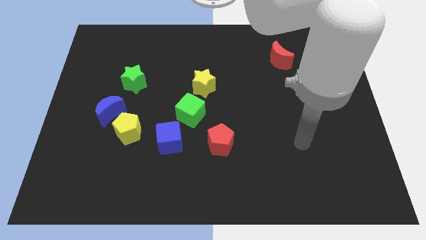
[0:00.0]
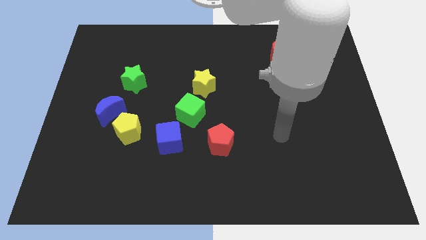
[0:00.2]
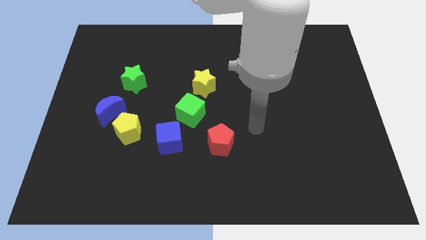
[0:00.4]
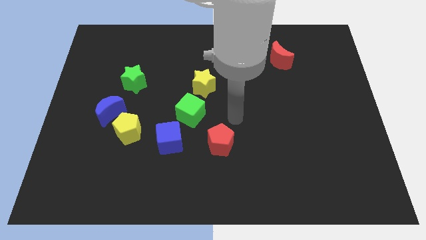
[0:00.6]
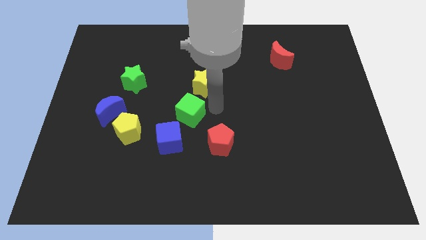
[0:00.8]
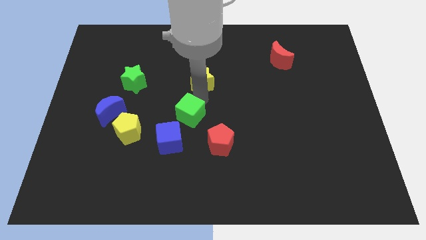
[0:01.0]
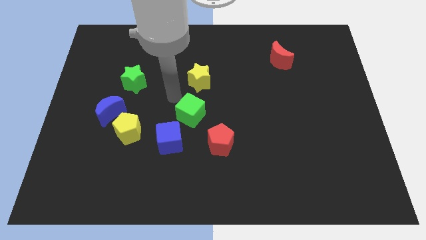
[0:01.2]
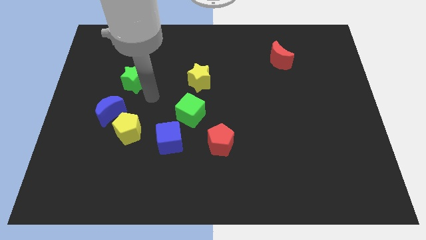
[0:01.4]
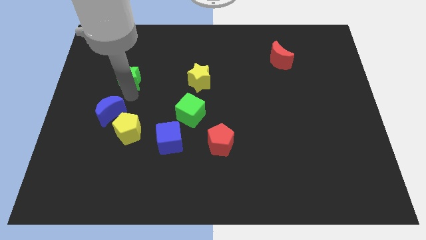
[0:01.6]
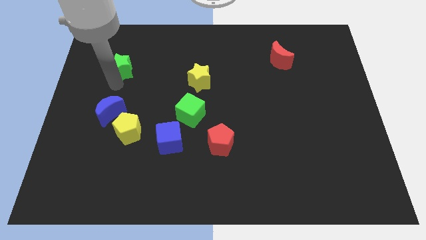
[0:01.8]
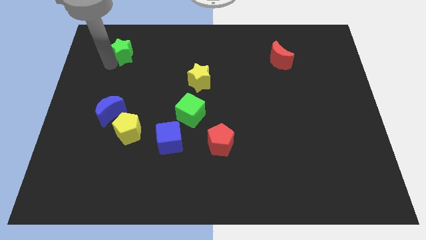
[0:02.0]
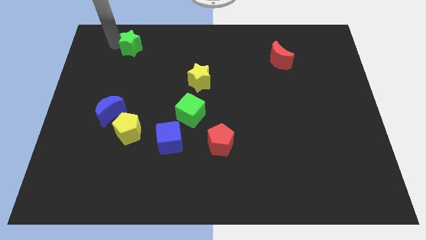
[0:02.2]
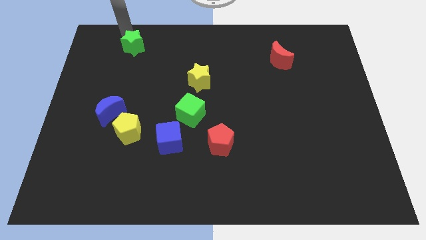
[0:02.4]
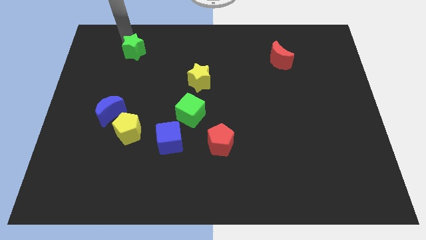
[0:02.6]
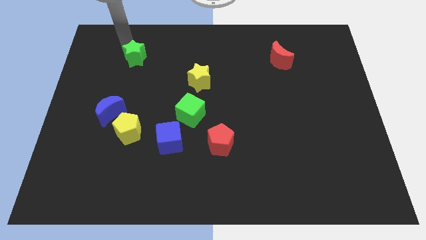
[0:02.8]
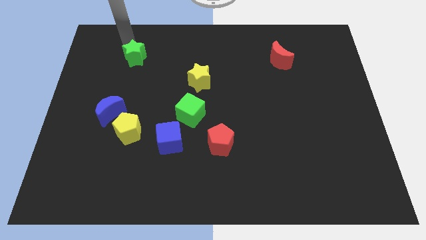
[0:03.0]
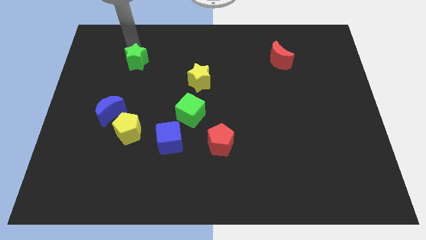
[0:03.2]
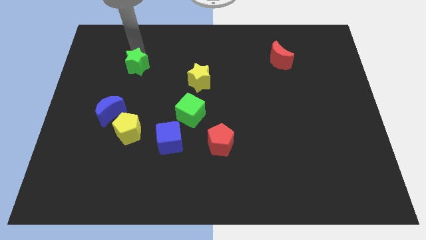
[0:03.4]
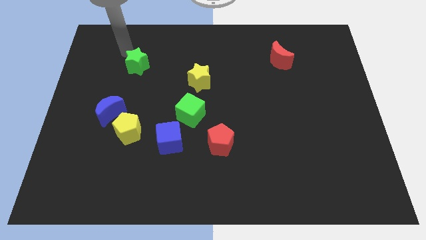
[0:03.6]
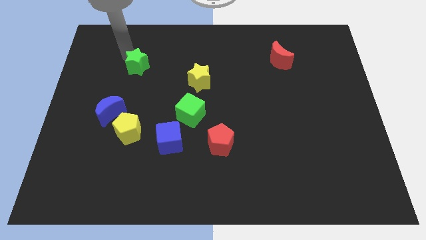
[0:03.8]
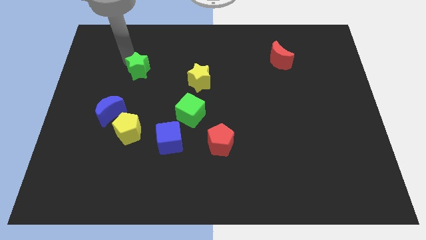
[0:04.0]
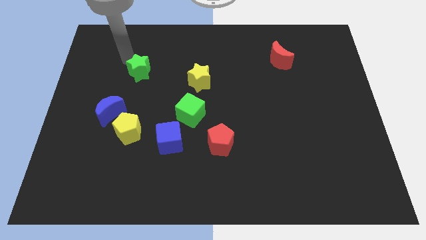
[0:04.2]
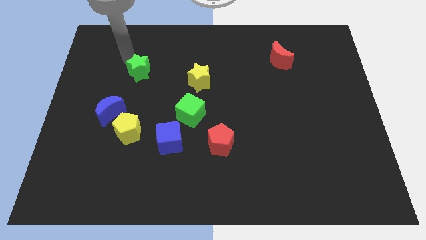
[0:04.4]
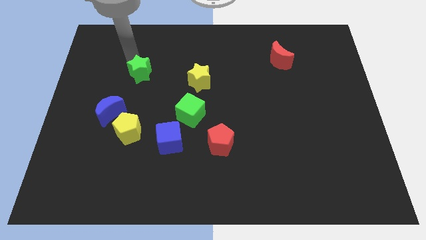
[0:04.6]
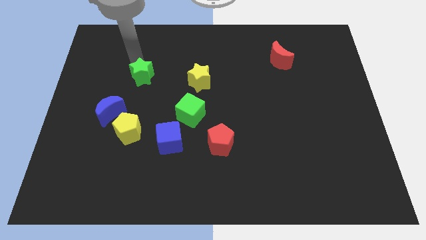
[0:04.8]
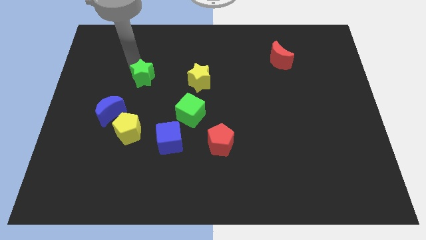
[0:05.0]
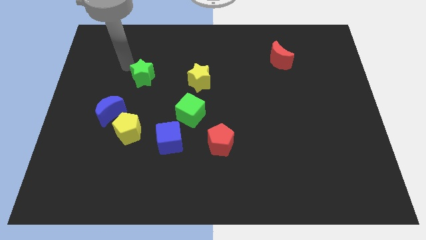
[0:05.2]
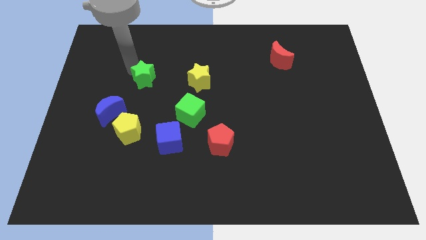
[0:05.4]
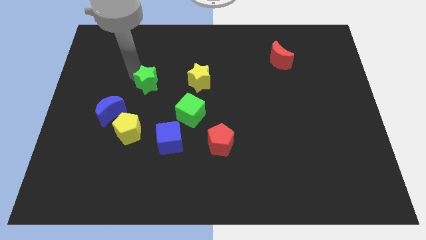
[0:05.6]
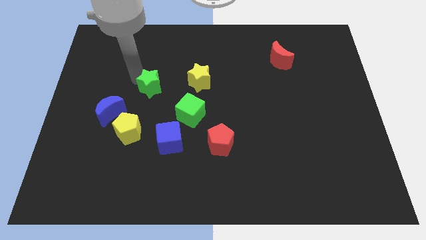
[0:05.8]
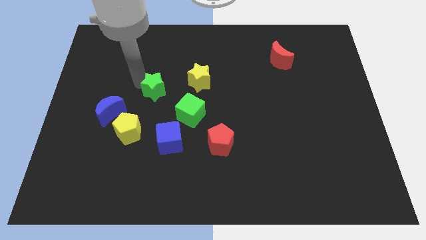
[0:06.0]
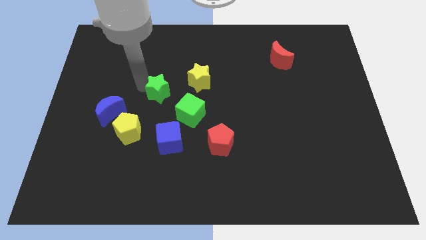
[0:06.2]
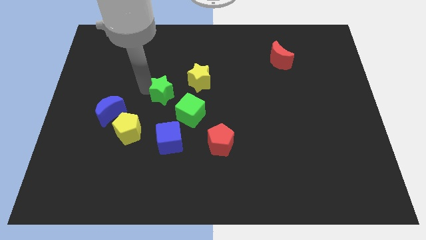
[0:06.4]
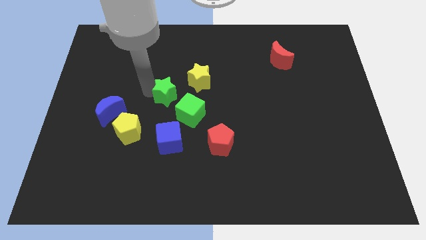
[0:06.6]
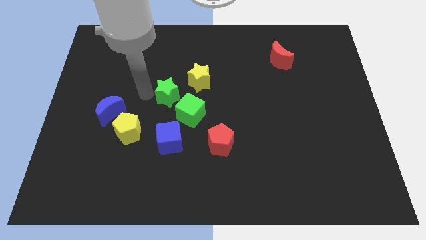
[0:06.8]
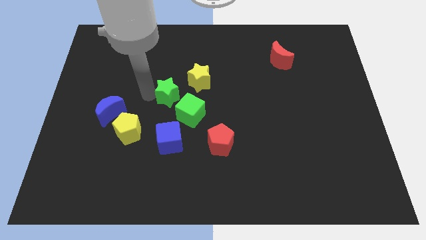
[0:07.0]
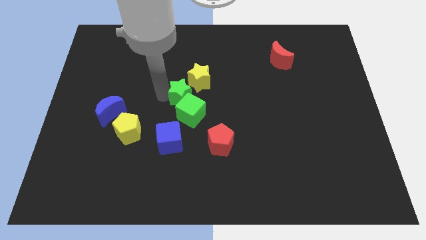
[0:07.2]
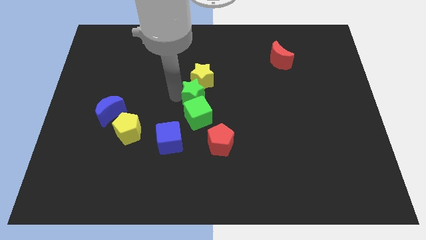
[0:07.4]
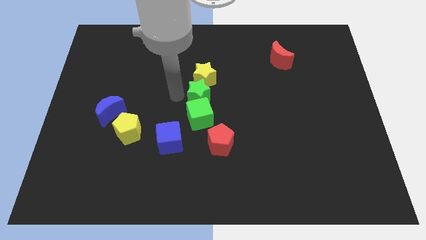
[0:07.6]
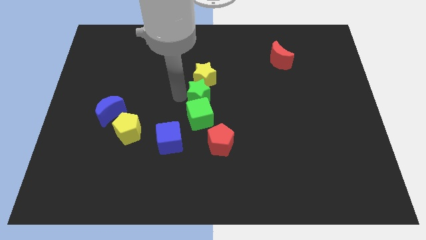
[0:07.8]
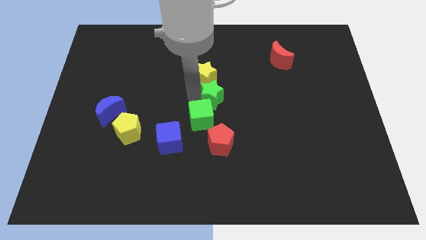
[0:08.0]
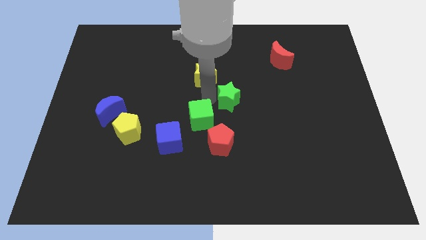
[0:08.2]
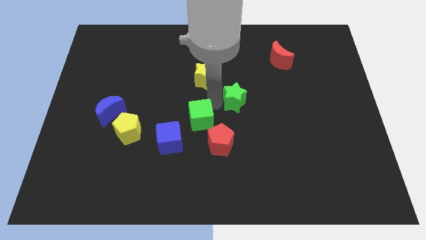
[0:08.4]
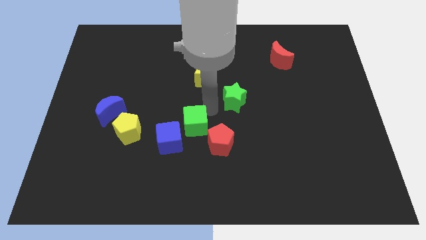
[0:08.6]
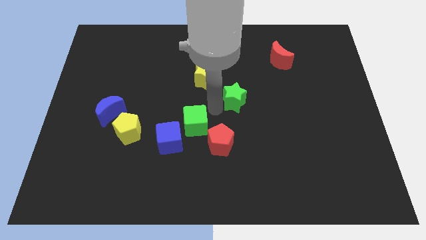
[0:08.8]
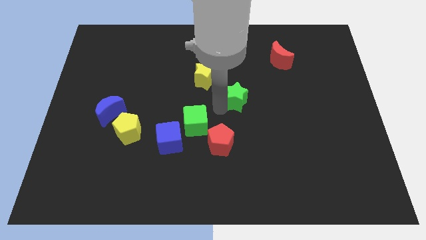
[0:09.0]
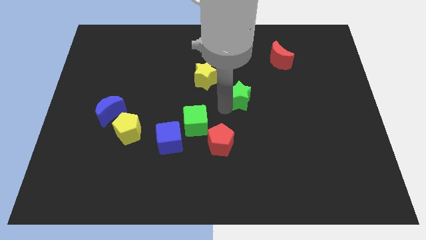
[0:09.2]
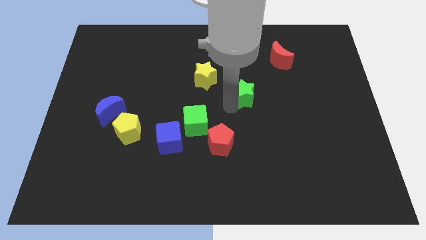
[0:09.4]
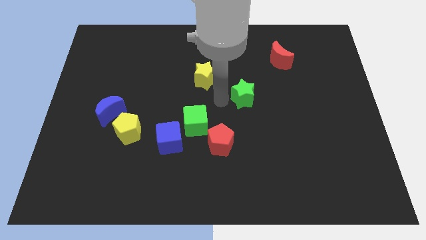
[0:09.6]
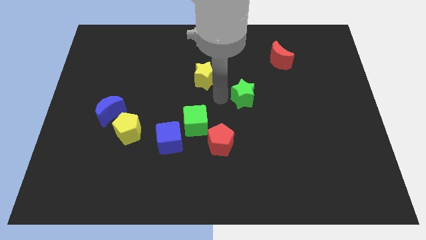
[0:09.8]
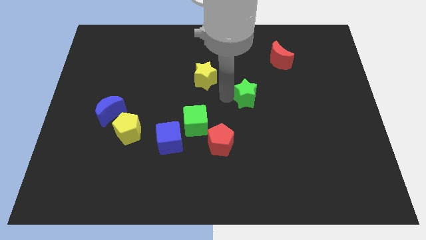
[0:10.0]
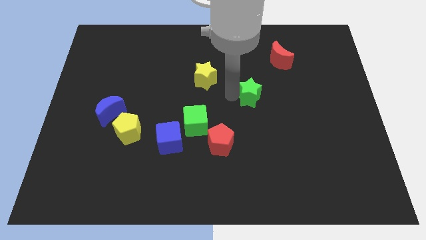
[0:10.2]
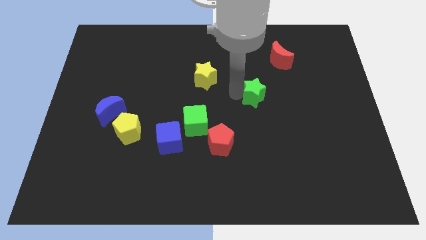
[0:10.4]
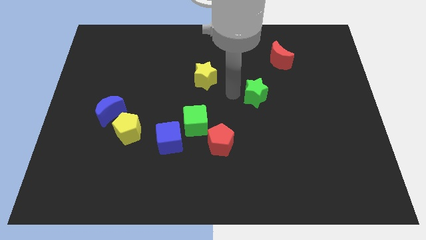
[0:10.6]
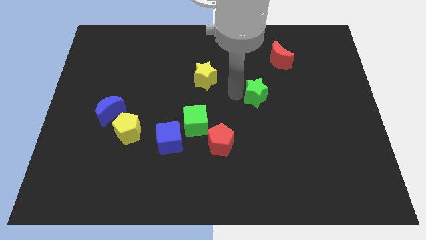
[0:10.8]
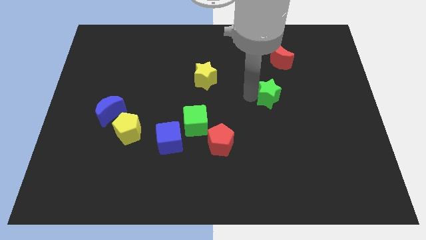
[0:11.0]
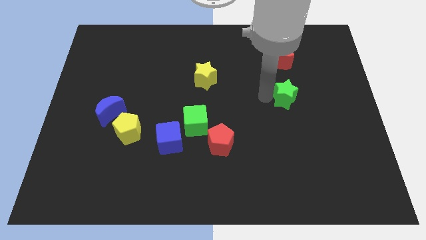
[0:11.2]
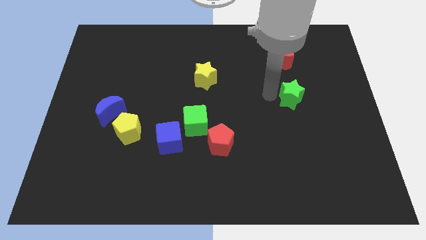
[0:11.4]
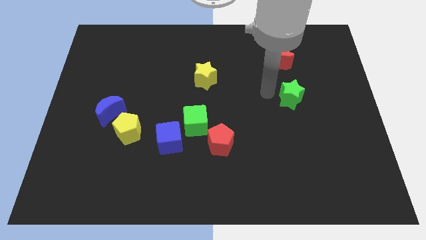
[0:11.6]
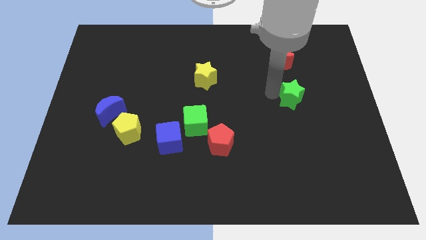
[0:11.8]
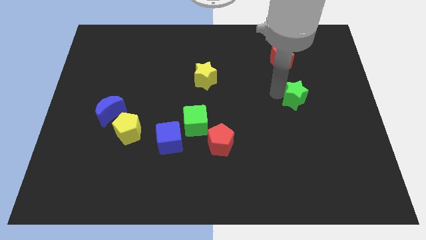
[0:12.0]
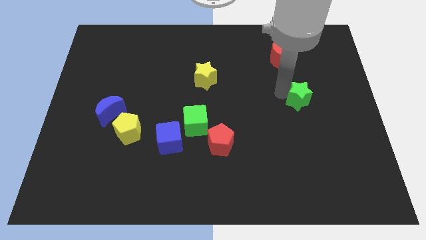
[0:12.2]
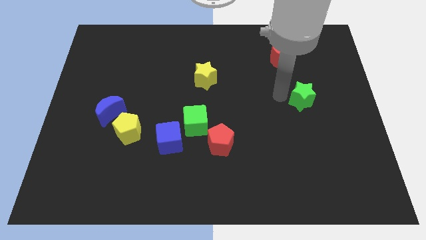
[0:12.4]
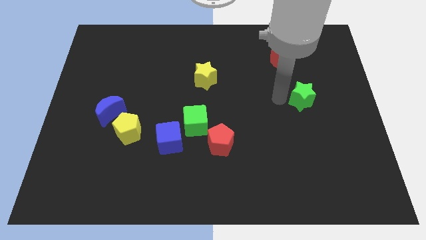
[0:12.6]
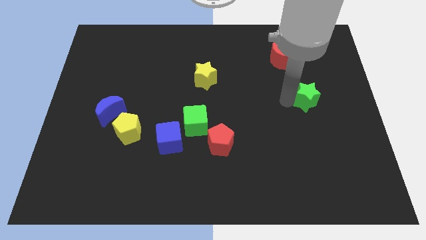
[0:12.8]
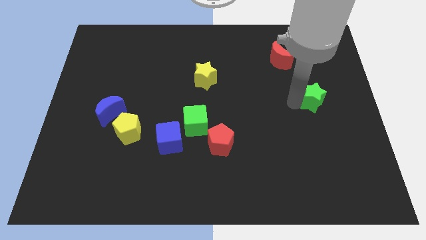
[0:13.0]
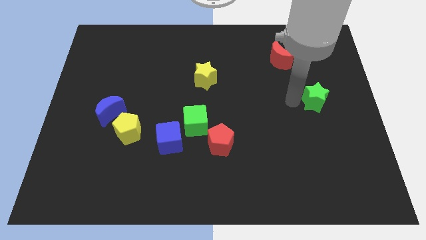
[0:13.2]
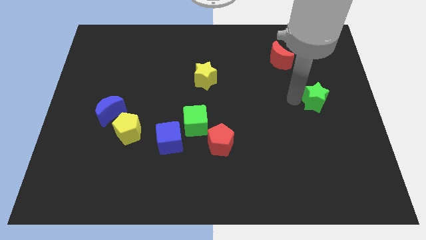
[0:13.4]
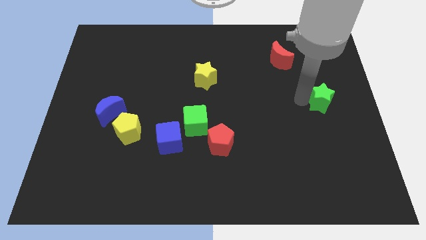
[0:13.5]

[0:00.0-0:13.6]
move the green star to the center right
